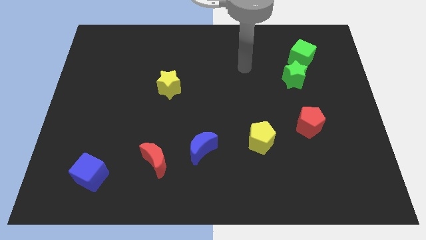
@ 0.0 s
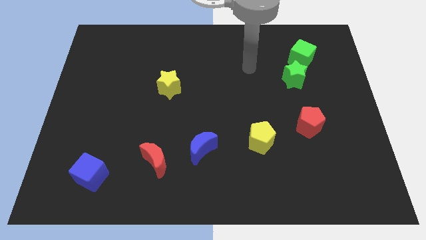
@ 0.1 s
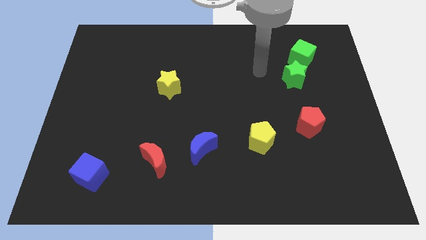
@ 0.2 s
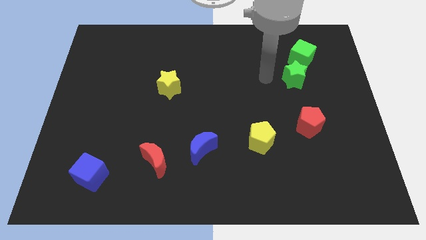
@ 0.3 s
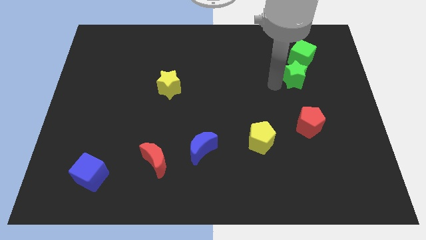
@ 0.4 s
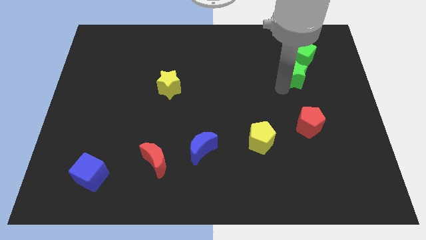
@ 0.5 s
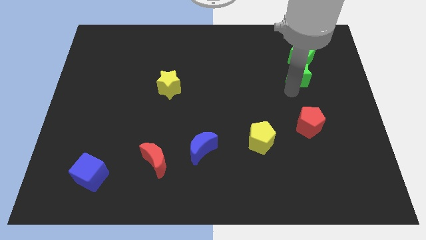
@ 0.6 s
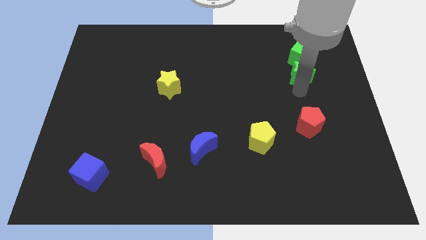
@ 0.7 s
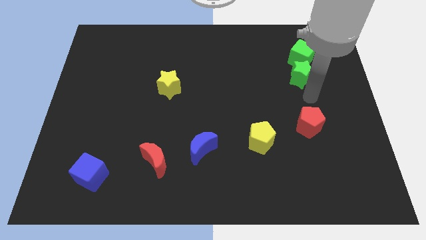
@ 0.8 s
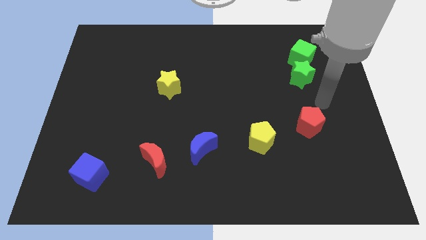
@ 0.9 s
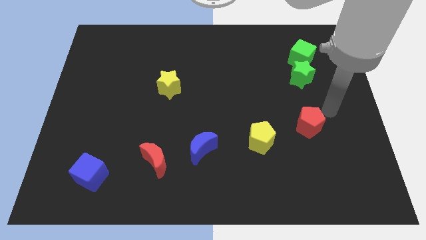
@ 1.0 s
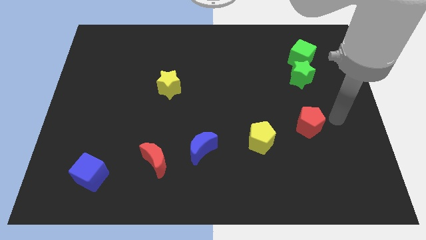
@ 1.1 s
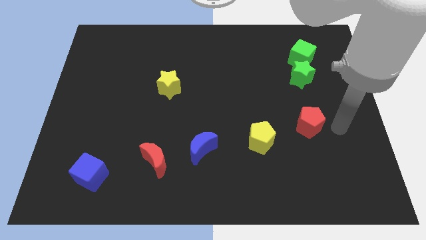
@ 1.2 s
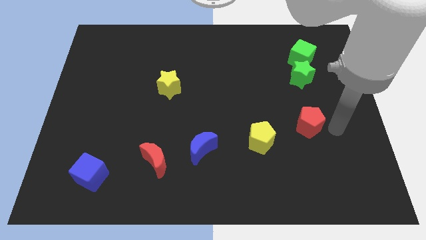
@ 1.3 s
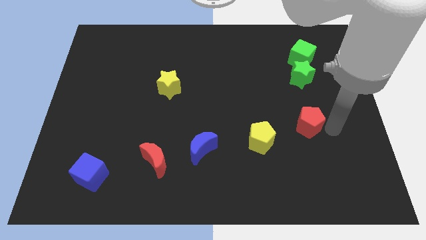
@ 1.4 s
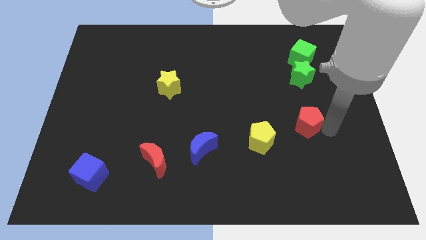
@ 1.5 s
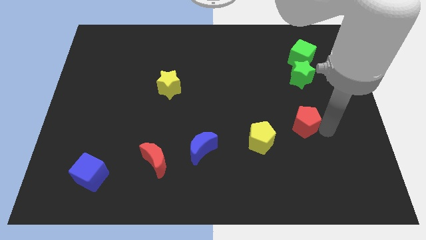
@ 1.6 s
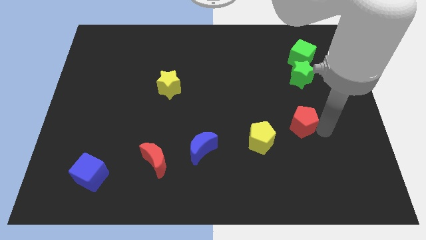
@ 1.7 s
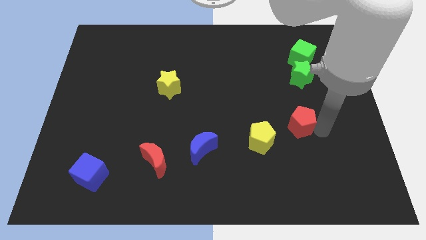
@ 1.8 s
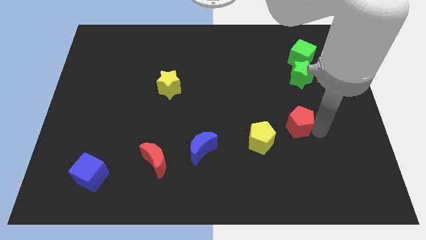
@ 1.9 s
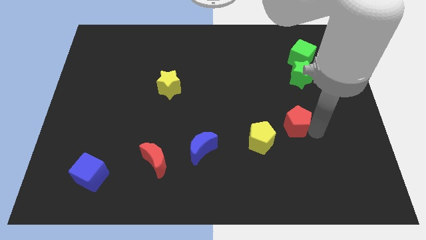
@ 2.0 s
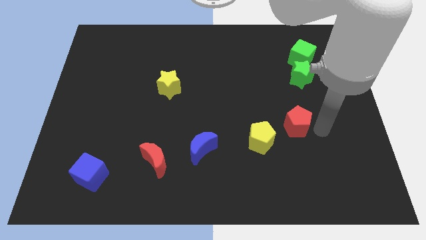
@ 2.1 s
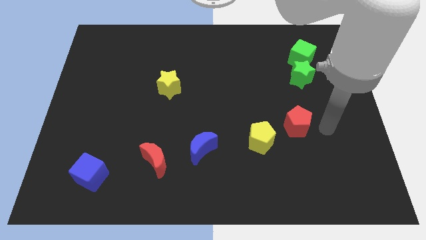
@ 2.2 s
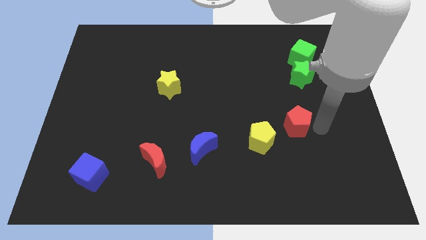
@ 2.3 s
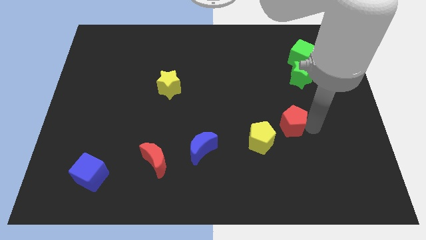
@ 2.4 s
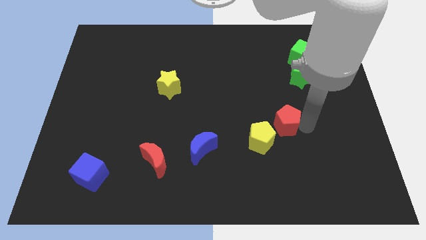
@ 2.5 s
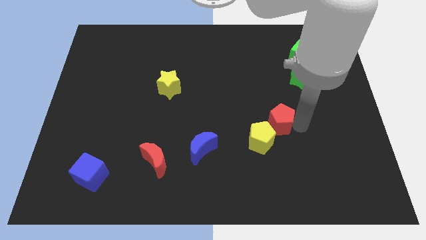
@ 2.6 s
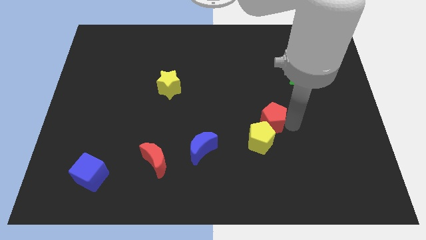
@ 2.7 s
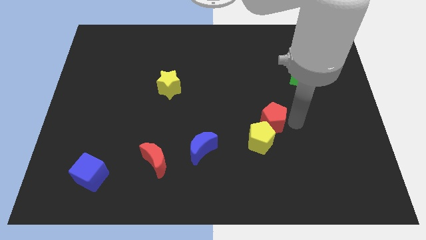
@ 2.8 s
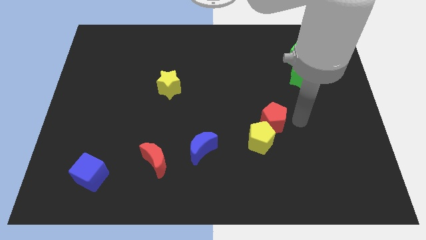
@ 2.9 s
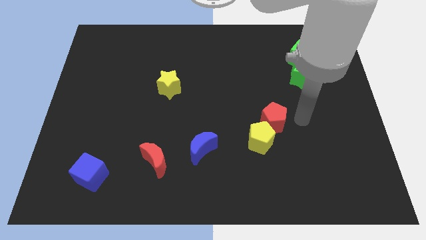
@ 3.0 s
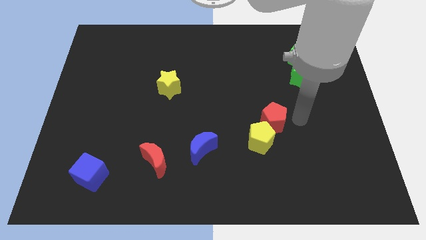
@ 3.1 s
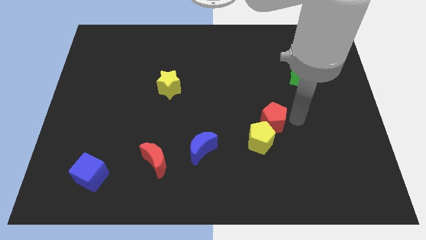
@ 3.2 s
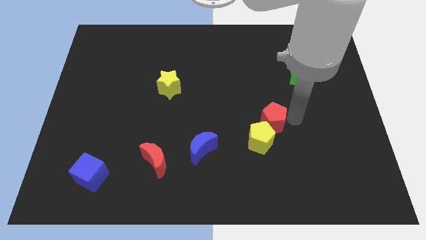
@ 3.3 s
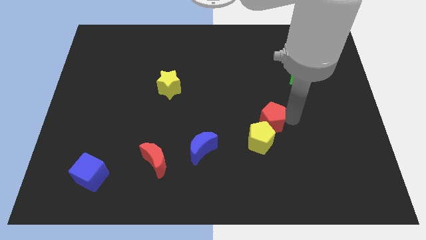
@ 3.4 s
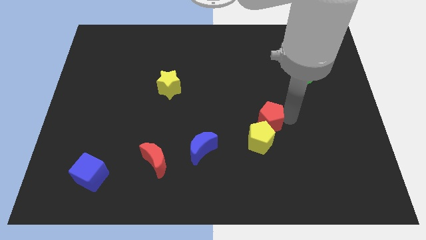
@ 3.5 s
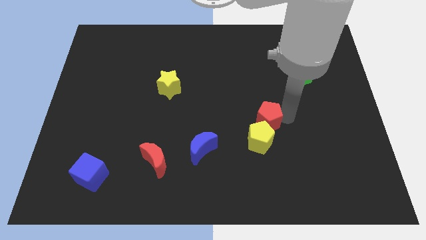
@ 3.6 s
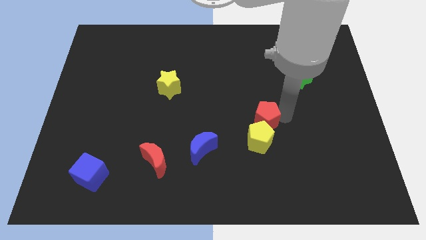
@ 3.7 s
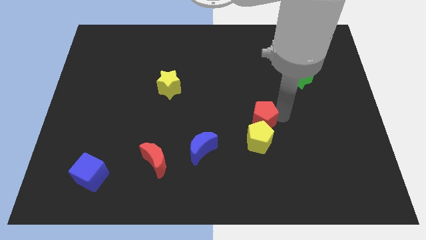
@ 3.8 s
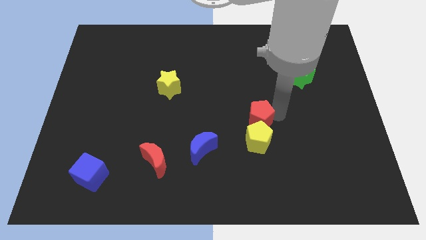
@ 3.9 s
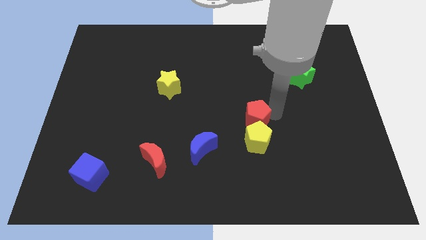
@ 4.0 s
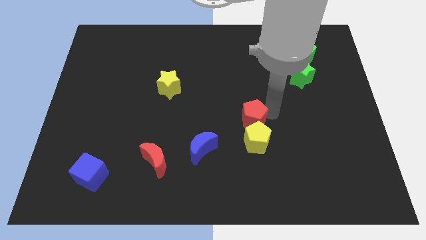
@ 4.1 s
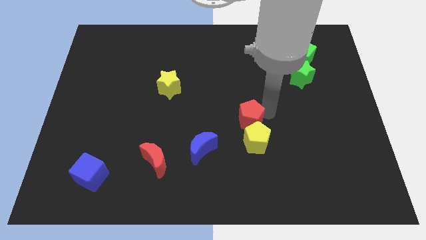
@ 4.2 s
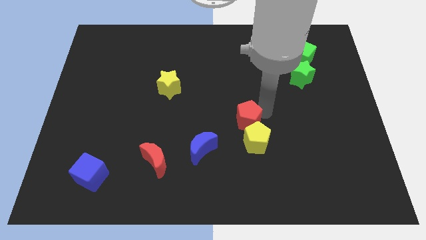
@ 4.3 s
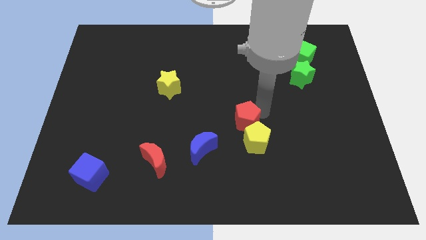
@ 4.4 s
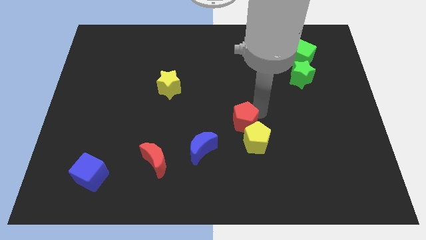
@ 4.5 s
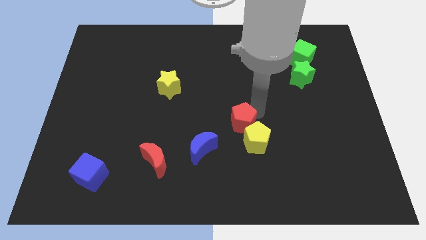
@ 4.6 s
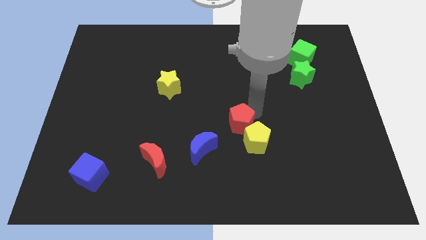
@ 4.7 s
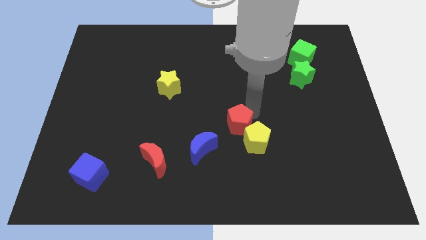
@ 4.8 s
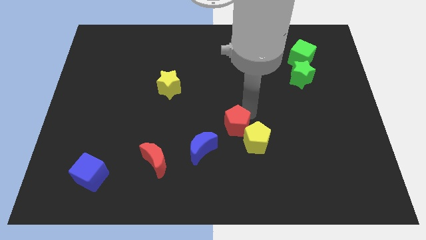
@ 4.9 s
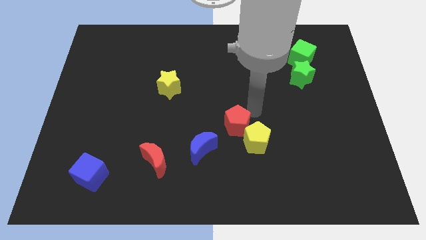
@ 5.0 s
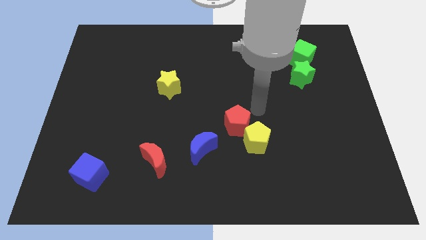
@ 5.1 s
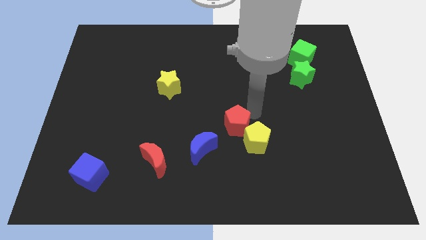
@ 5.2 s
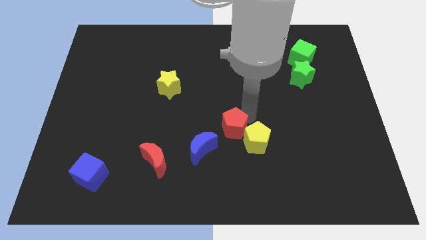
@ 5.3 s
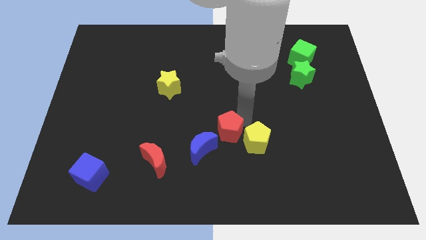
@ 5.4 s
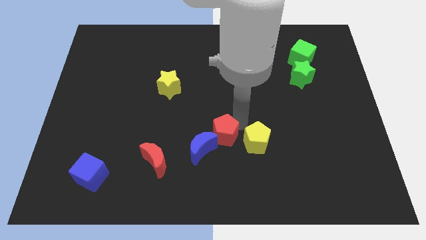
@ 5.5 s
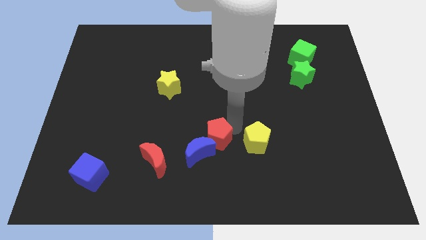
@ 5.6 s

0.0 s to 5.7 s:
push the red pentagon close to the blue moon

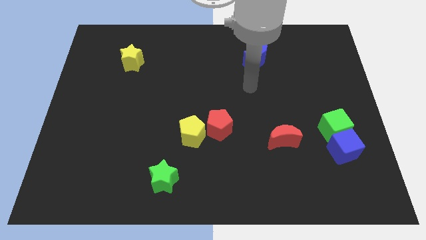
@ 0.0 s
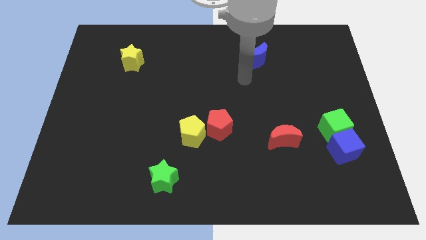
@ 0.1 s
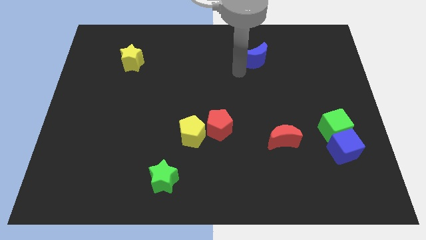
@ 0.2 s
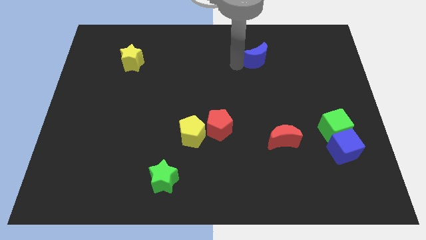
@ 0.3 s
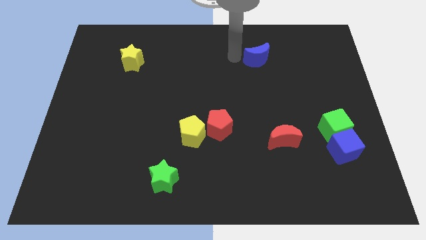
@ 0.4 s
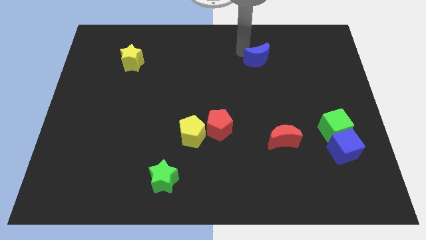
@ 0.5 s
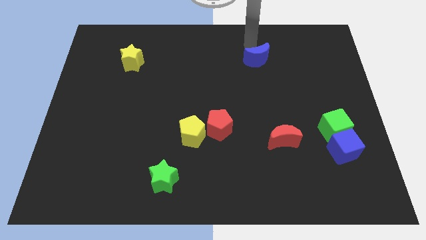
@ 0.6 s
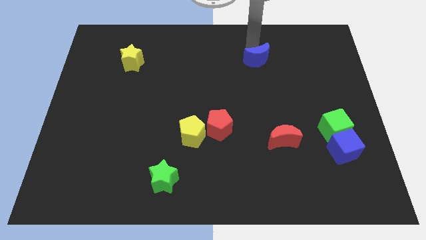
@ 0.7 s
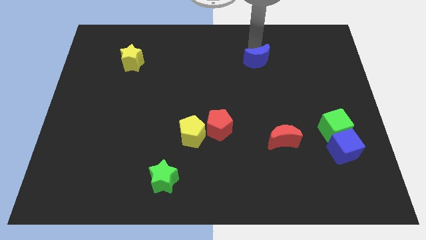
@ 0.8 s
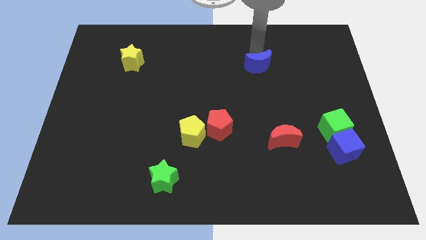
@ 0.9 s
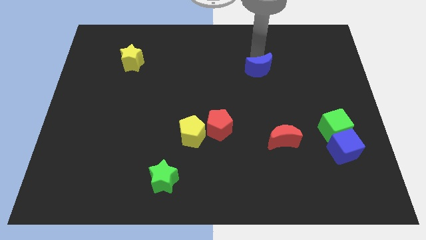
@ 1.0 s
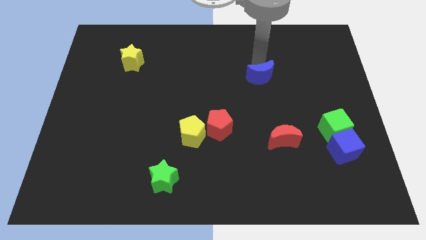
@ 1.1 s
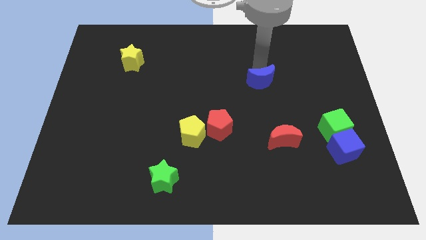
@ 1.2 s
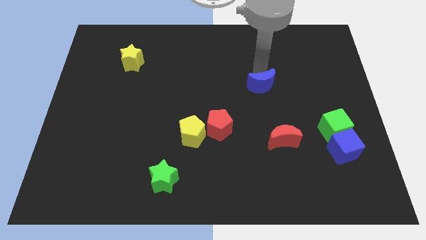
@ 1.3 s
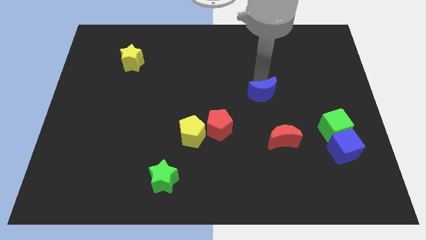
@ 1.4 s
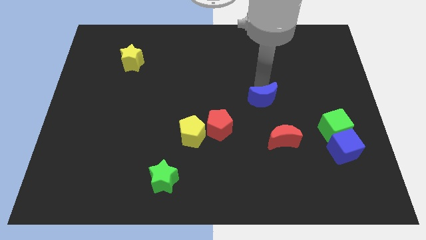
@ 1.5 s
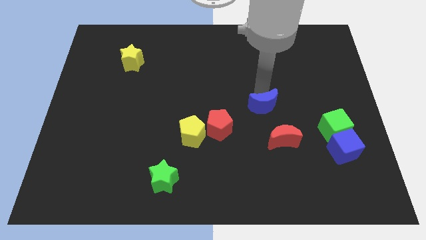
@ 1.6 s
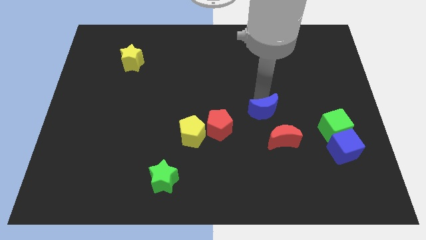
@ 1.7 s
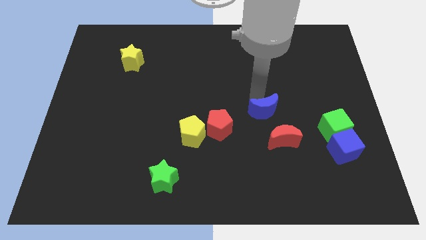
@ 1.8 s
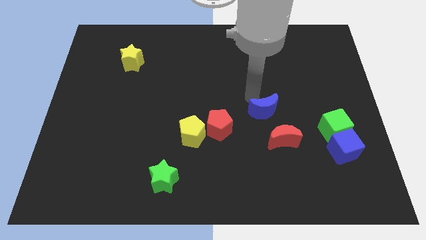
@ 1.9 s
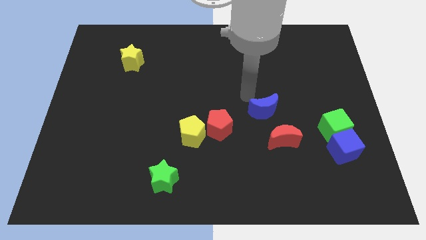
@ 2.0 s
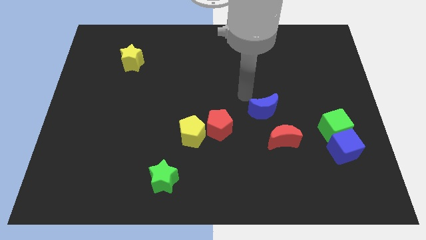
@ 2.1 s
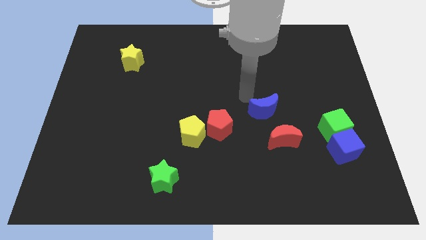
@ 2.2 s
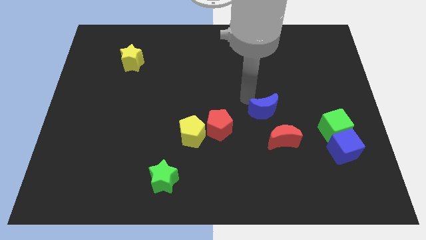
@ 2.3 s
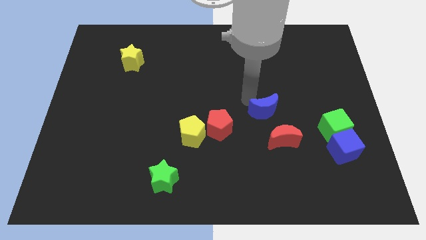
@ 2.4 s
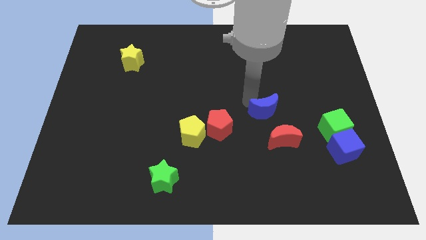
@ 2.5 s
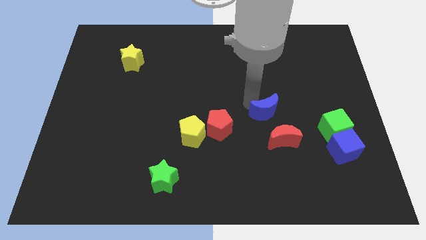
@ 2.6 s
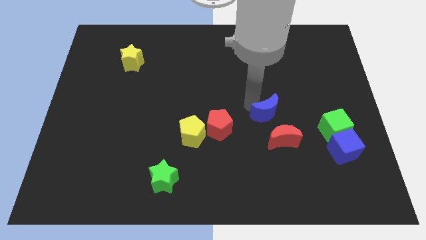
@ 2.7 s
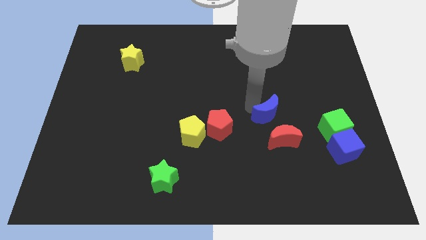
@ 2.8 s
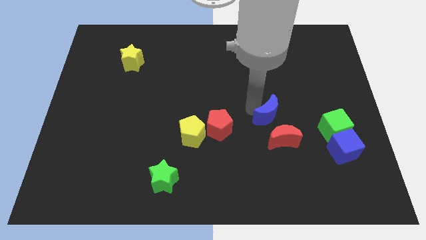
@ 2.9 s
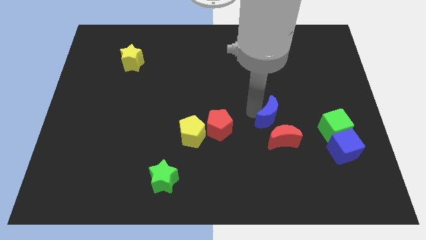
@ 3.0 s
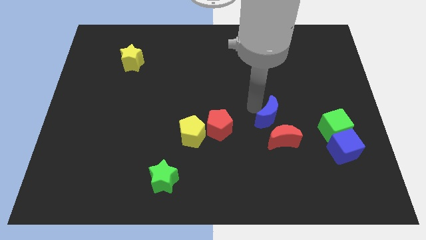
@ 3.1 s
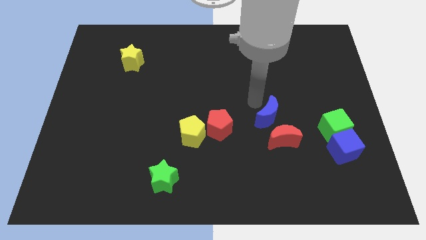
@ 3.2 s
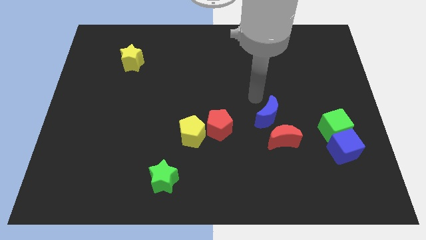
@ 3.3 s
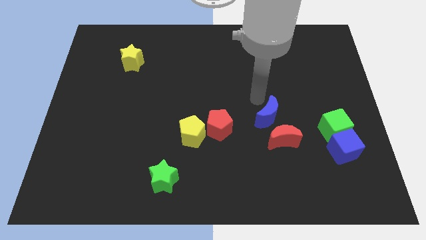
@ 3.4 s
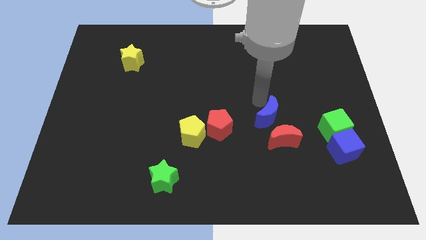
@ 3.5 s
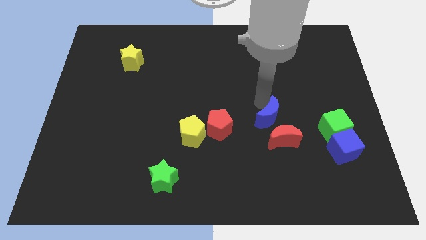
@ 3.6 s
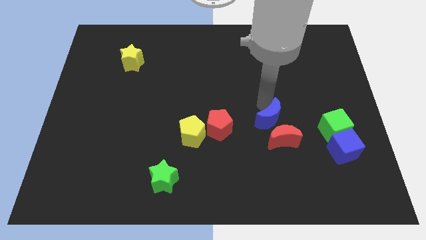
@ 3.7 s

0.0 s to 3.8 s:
slide the blue moon next to the red moon
